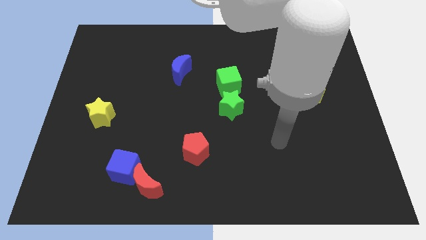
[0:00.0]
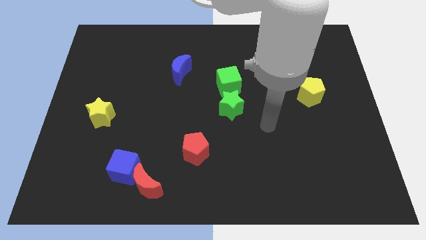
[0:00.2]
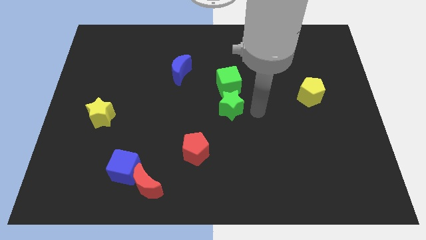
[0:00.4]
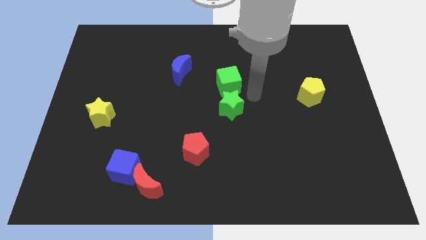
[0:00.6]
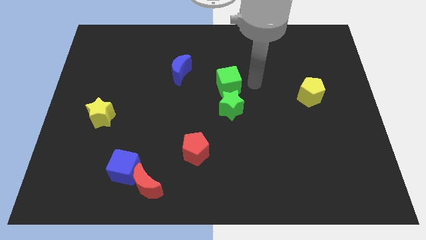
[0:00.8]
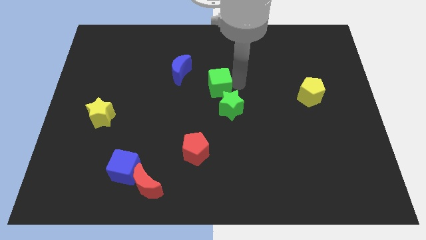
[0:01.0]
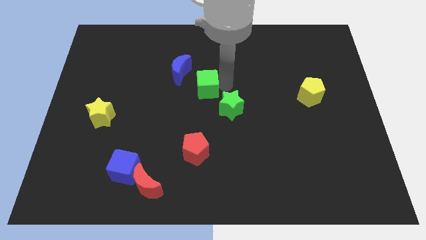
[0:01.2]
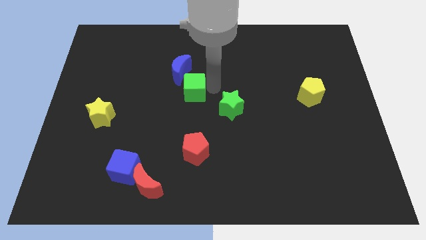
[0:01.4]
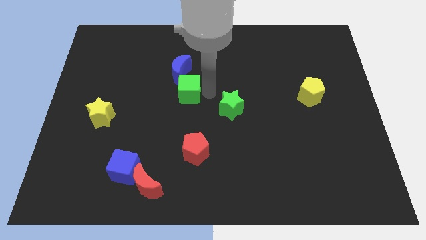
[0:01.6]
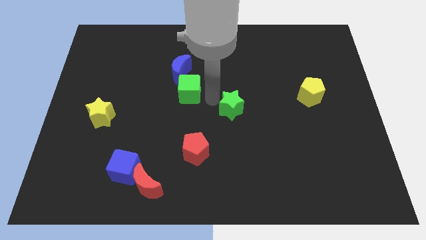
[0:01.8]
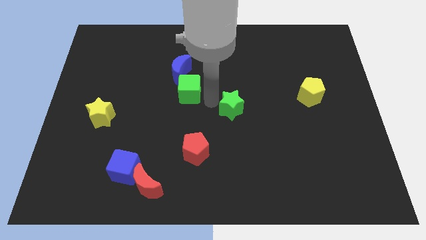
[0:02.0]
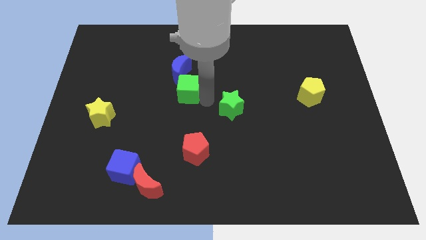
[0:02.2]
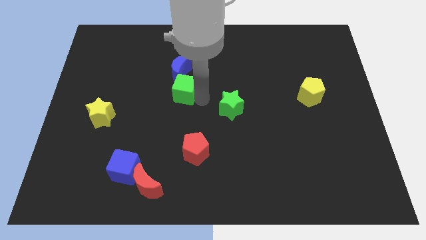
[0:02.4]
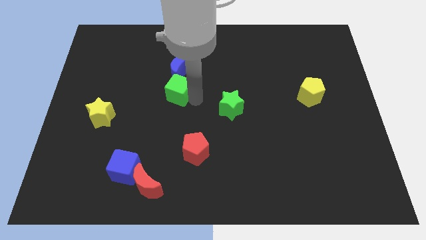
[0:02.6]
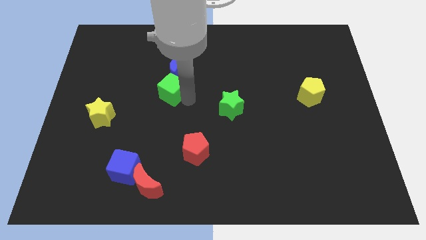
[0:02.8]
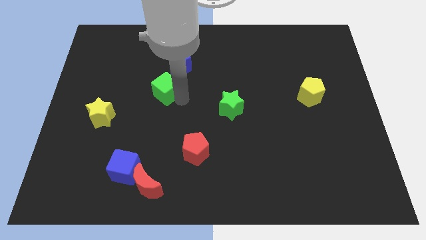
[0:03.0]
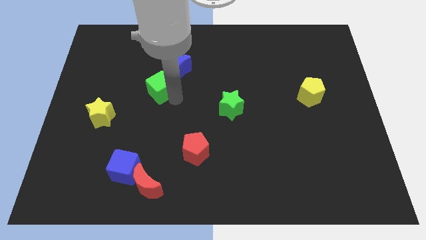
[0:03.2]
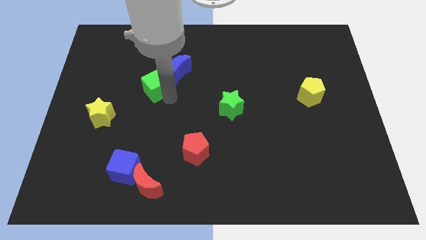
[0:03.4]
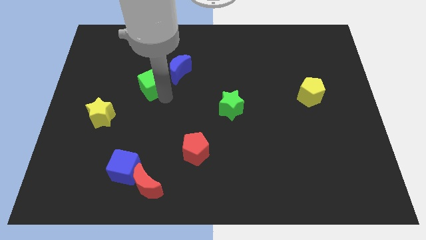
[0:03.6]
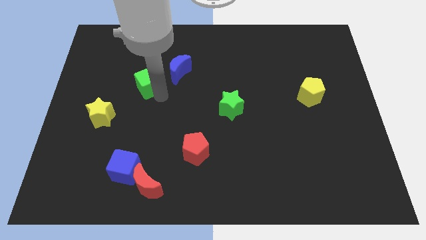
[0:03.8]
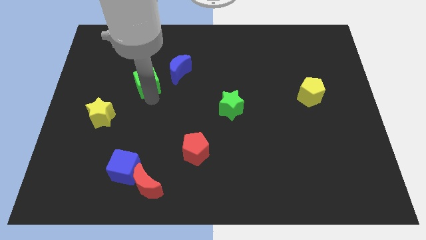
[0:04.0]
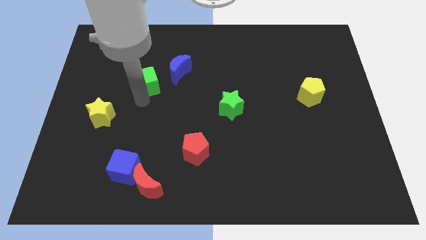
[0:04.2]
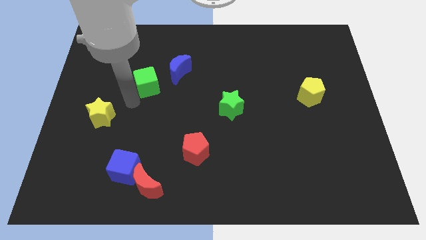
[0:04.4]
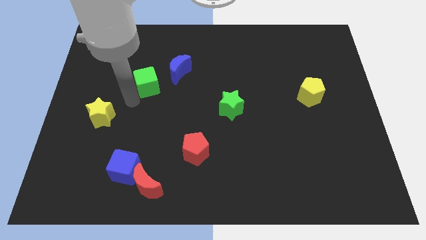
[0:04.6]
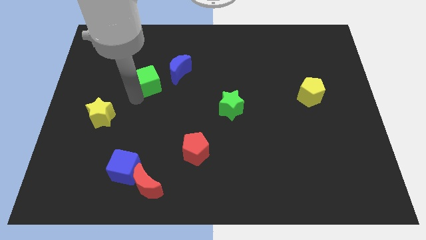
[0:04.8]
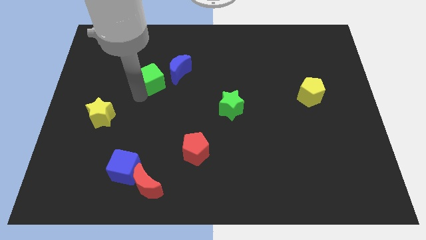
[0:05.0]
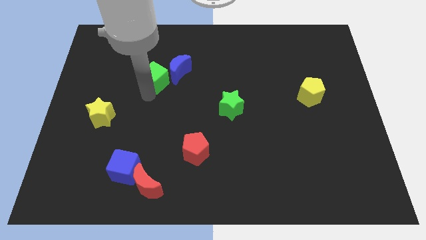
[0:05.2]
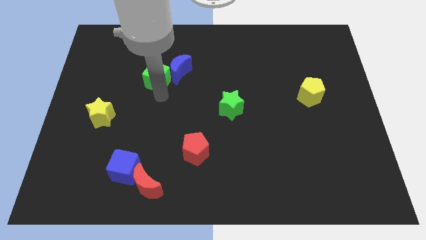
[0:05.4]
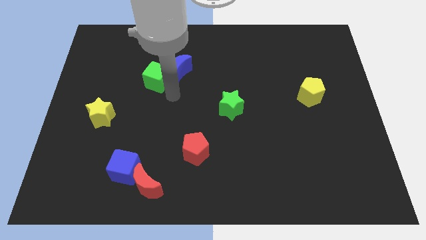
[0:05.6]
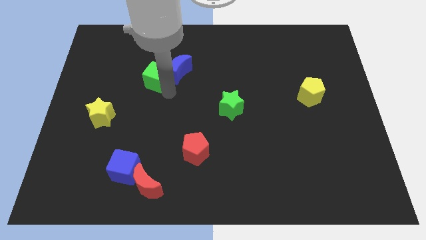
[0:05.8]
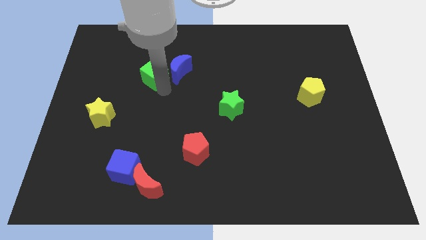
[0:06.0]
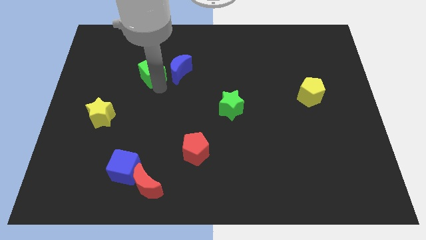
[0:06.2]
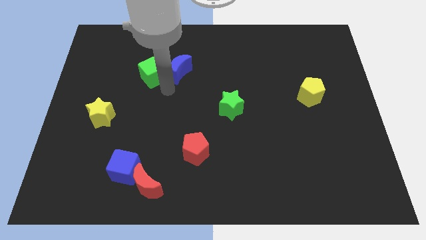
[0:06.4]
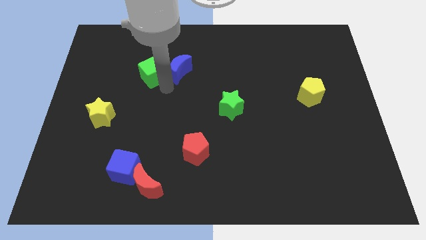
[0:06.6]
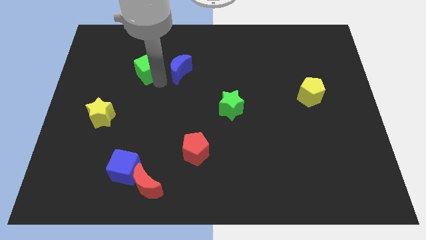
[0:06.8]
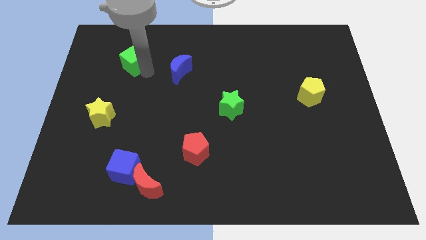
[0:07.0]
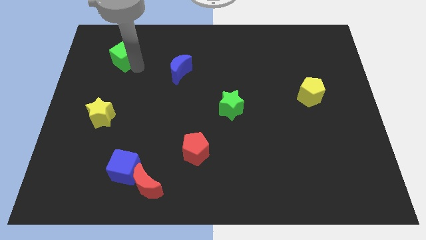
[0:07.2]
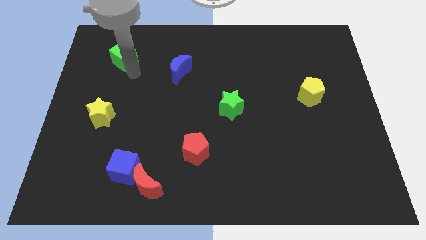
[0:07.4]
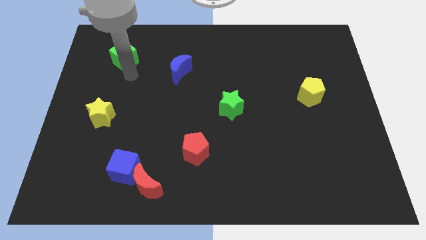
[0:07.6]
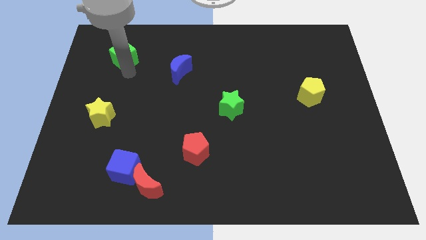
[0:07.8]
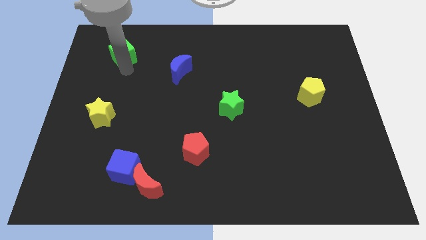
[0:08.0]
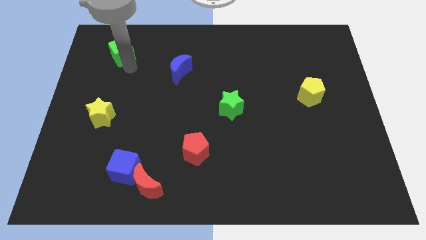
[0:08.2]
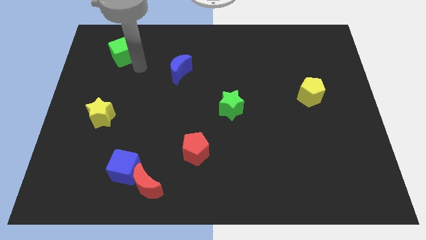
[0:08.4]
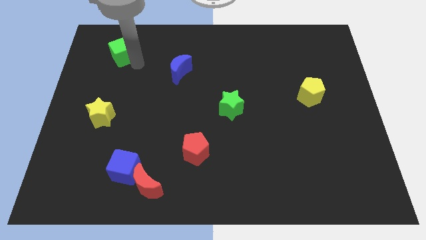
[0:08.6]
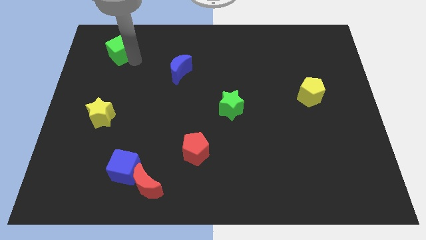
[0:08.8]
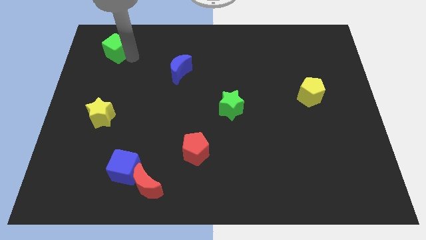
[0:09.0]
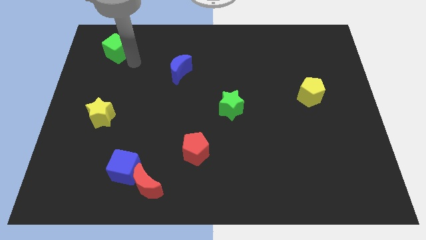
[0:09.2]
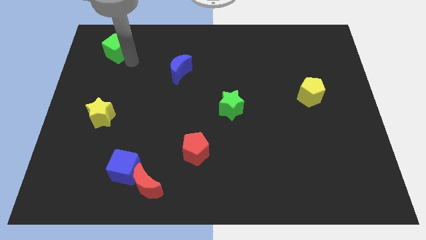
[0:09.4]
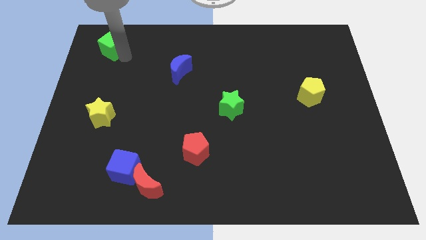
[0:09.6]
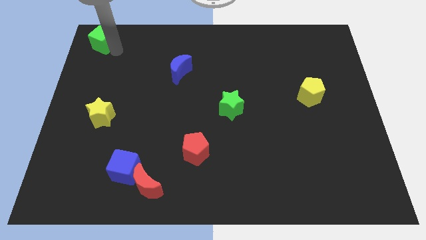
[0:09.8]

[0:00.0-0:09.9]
move the green cube to the top left of the board

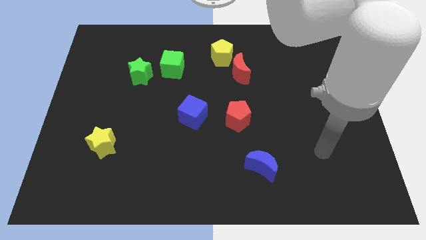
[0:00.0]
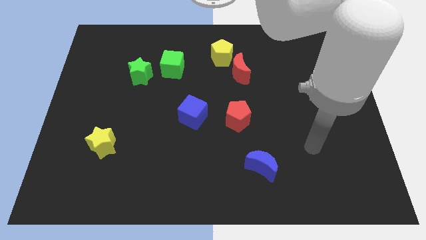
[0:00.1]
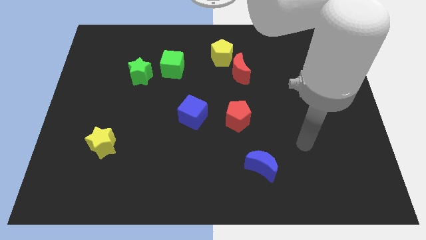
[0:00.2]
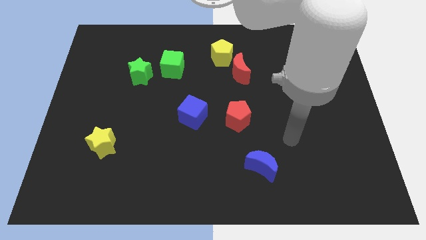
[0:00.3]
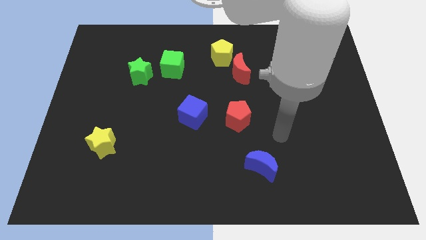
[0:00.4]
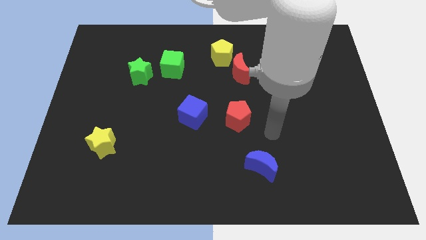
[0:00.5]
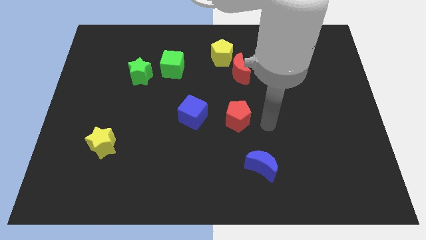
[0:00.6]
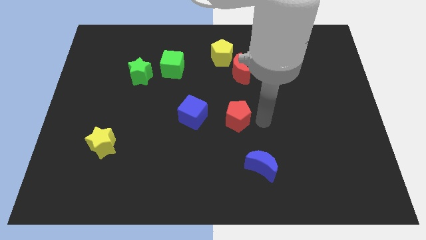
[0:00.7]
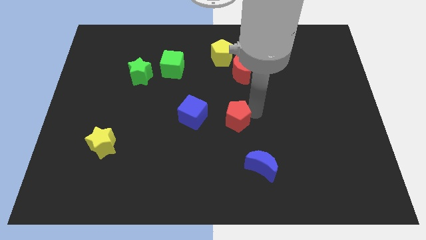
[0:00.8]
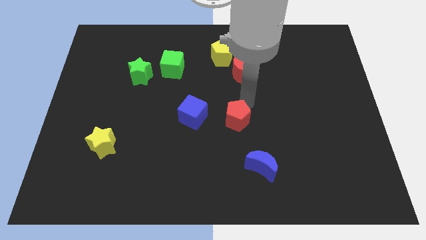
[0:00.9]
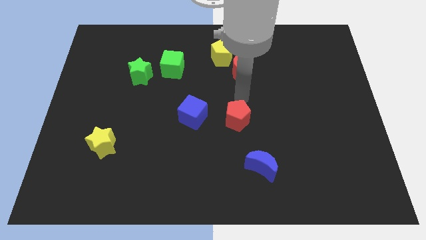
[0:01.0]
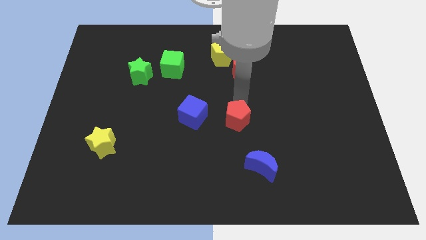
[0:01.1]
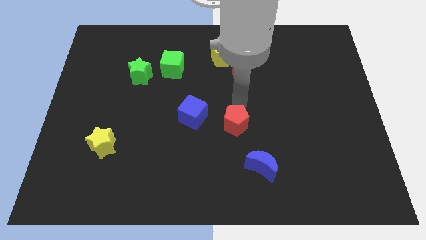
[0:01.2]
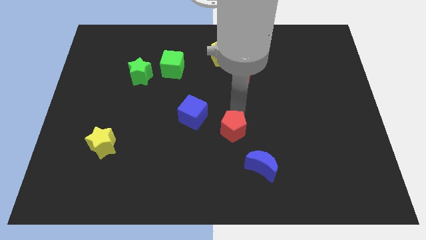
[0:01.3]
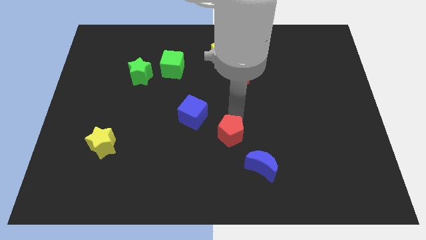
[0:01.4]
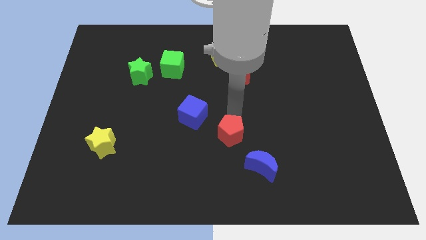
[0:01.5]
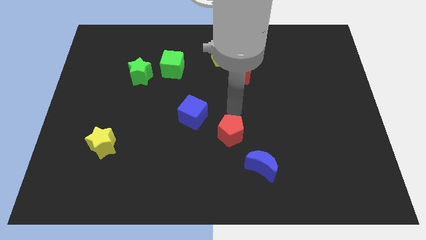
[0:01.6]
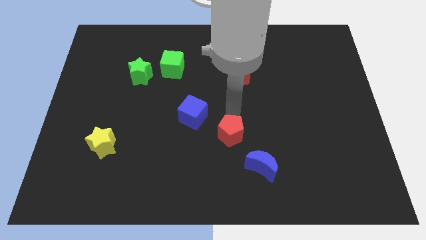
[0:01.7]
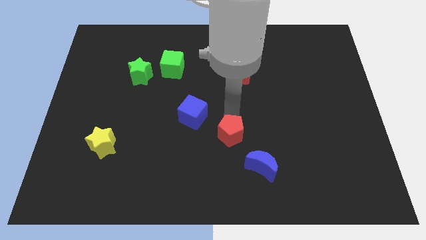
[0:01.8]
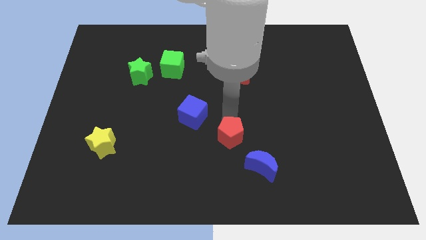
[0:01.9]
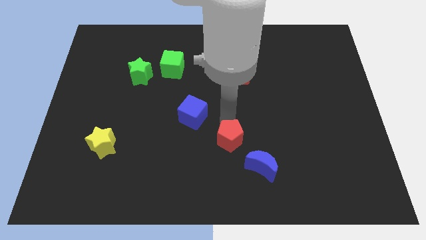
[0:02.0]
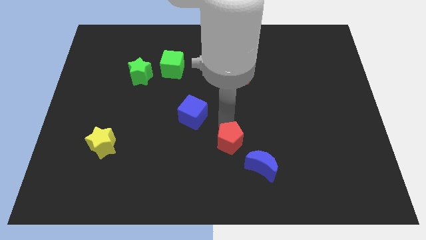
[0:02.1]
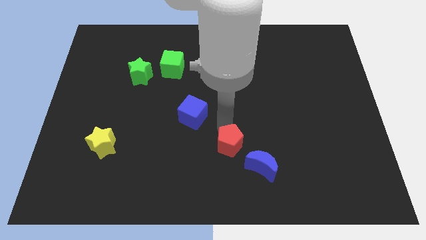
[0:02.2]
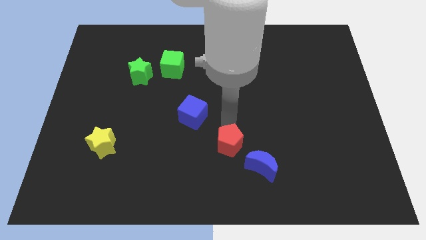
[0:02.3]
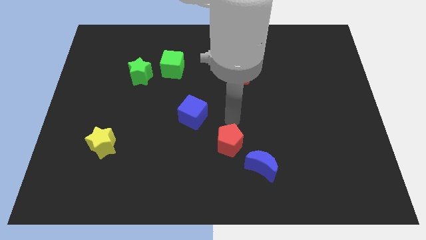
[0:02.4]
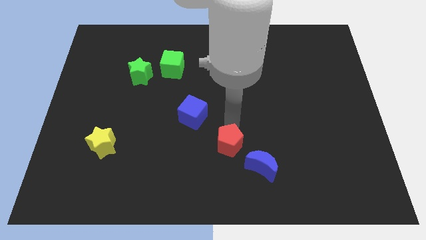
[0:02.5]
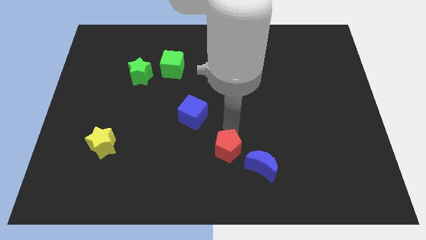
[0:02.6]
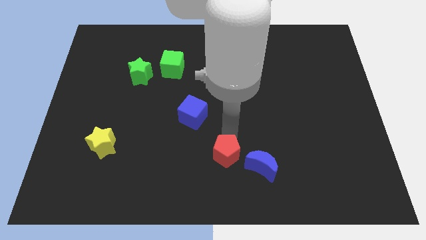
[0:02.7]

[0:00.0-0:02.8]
put the red pentagon to the bottom side
